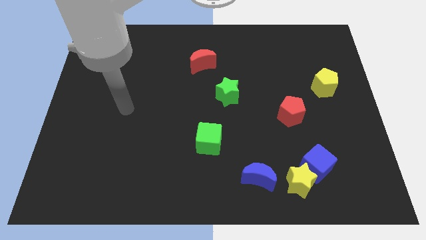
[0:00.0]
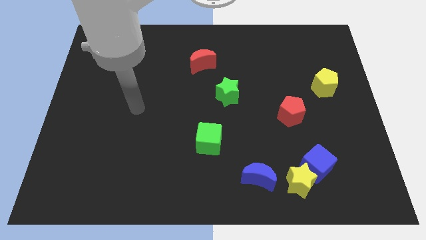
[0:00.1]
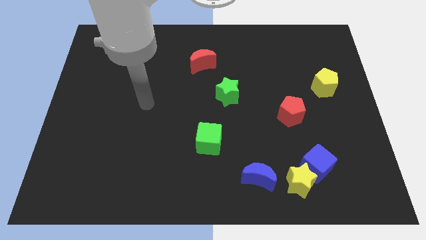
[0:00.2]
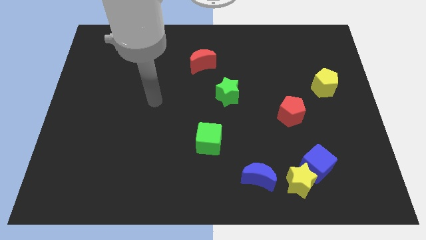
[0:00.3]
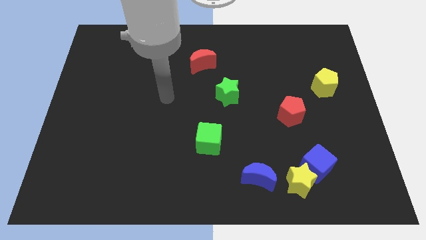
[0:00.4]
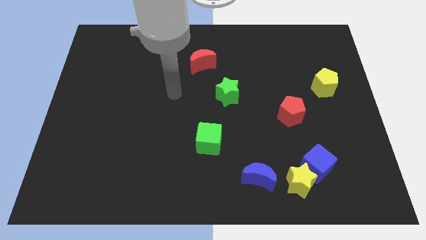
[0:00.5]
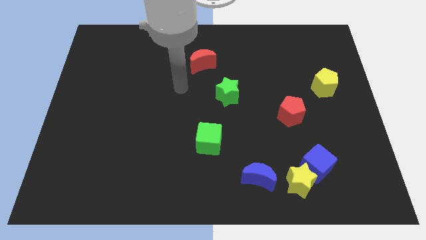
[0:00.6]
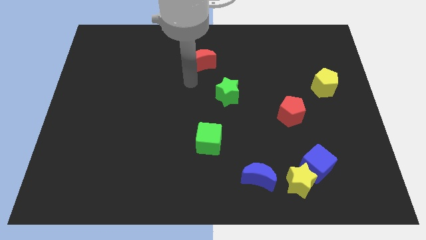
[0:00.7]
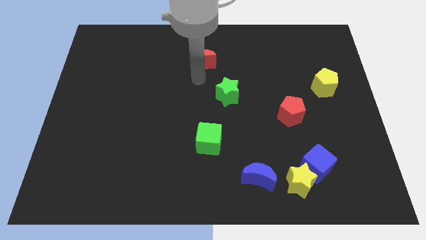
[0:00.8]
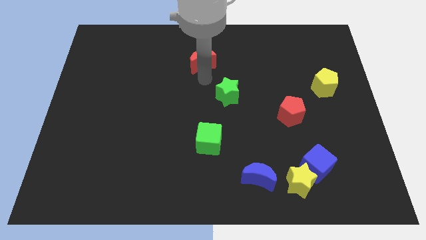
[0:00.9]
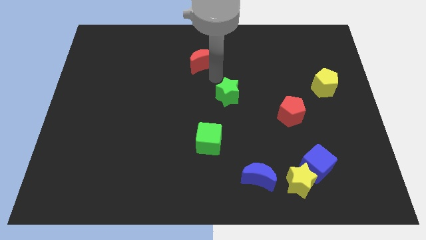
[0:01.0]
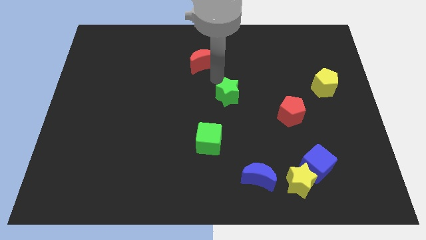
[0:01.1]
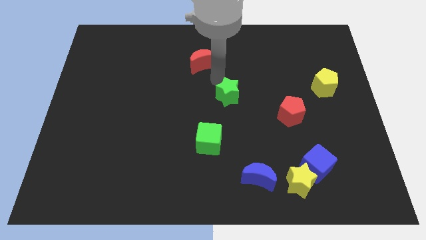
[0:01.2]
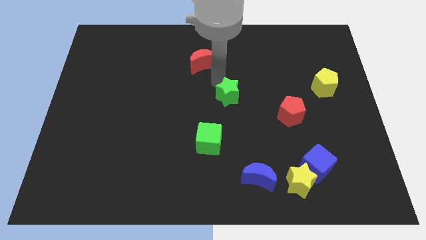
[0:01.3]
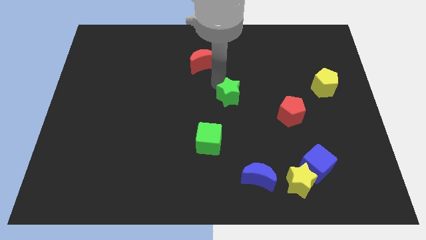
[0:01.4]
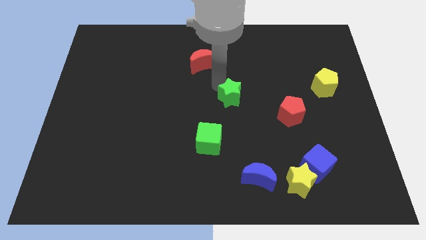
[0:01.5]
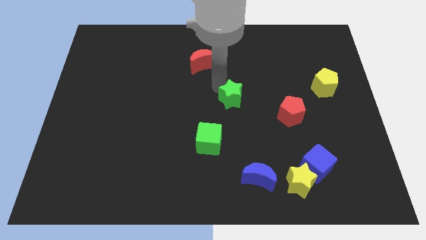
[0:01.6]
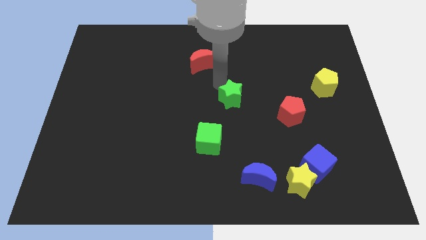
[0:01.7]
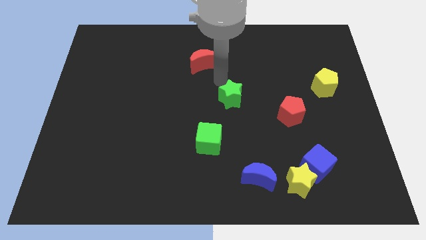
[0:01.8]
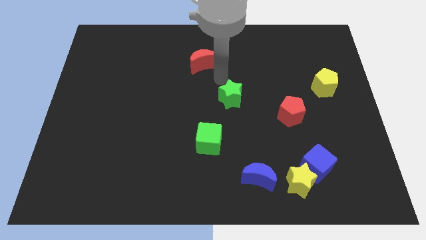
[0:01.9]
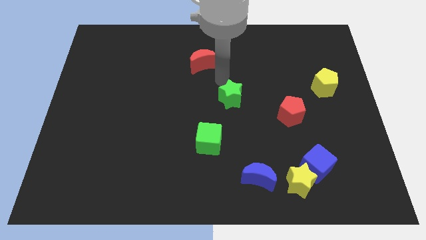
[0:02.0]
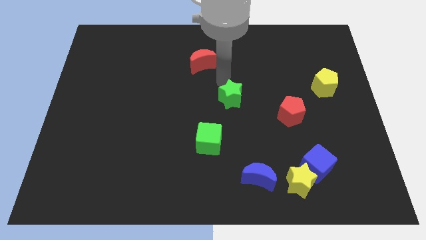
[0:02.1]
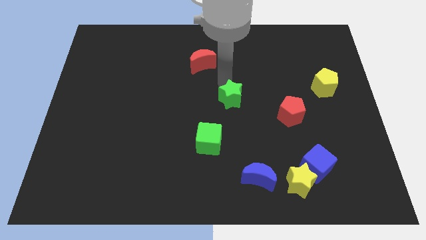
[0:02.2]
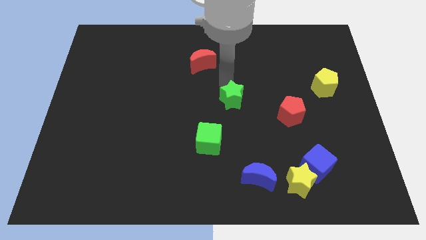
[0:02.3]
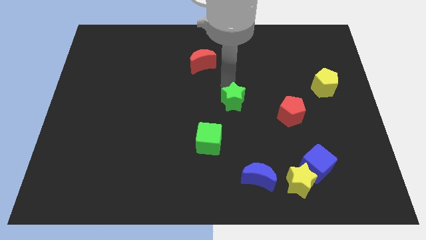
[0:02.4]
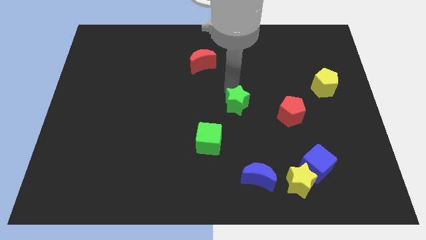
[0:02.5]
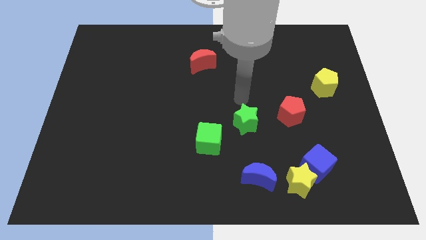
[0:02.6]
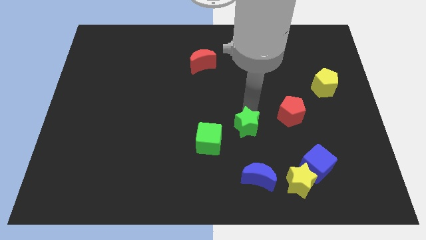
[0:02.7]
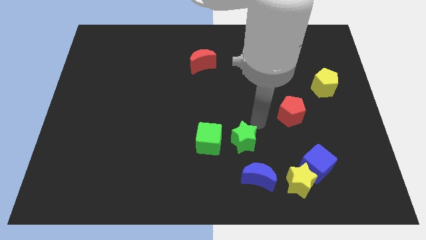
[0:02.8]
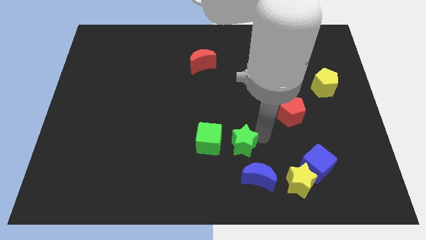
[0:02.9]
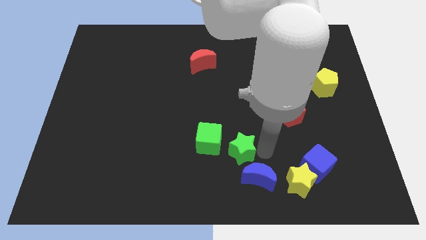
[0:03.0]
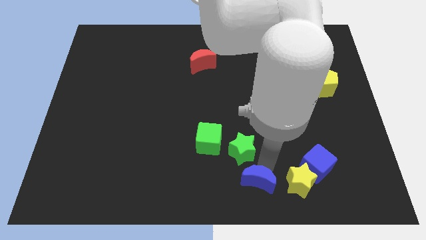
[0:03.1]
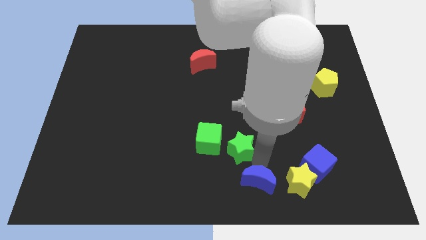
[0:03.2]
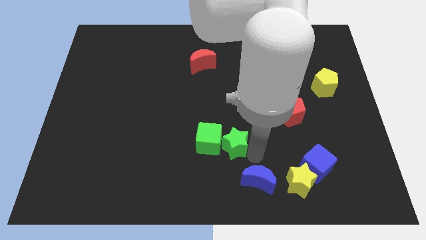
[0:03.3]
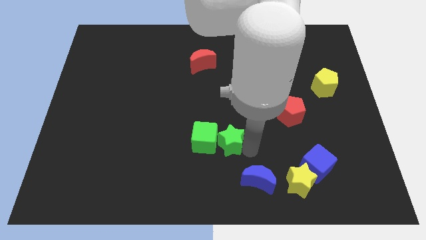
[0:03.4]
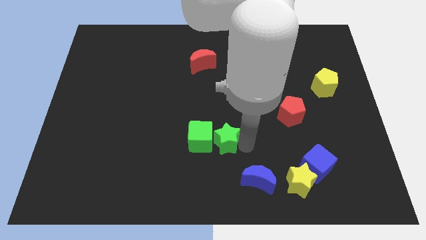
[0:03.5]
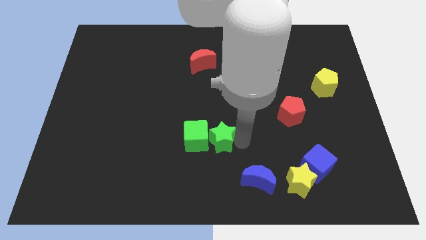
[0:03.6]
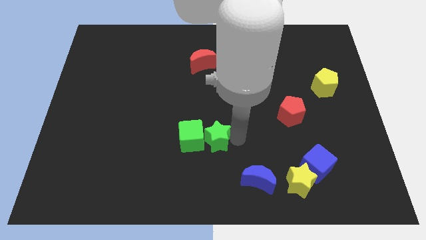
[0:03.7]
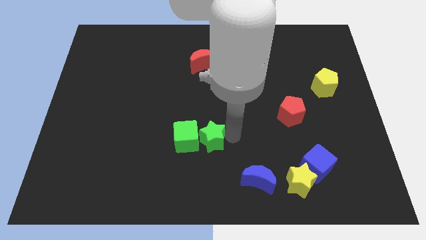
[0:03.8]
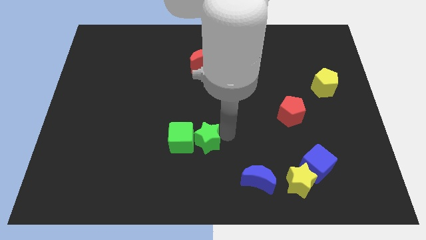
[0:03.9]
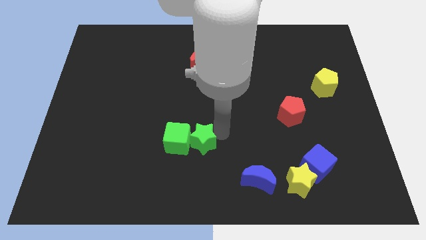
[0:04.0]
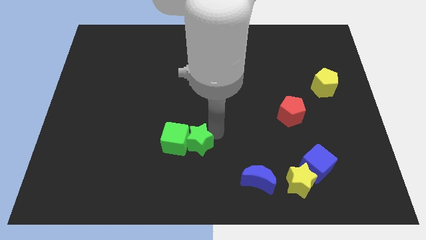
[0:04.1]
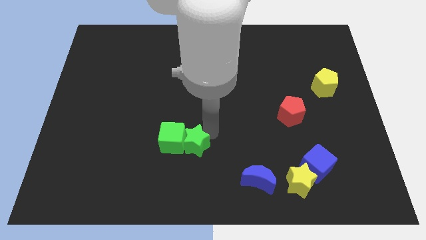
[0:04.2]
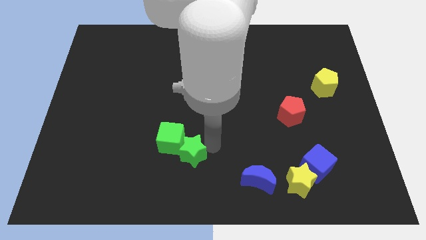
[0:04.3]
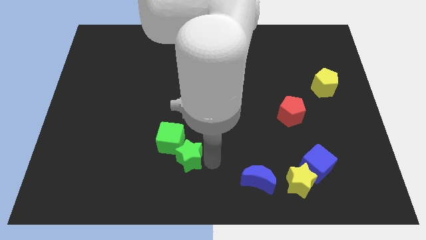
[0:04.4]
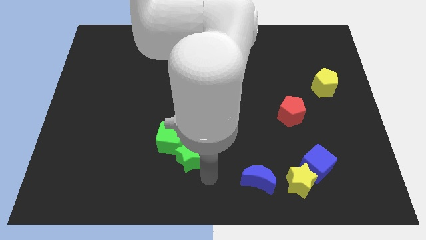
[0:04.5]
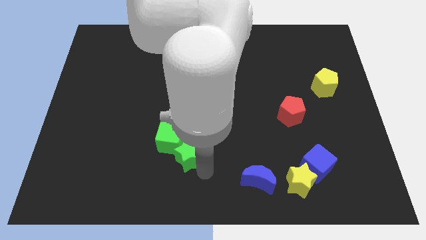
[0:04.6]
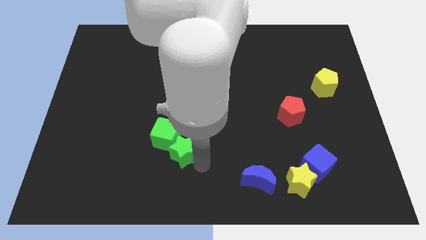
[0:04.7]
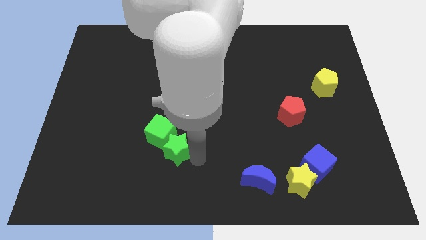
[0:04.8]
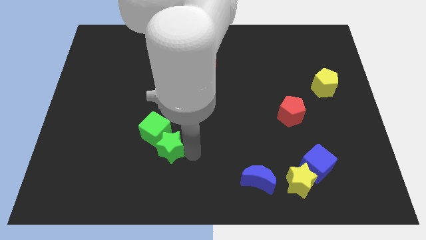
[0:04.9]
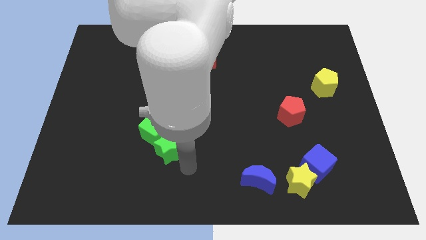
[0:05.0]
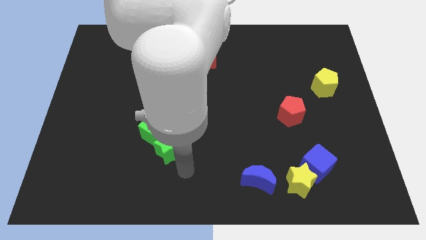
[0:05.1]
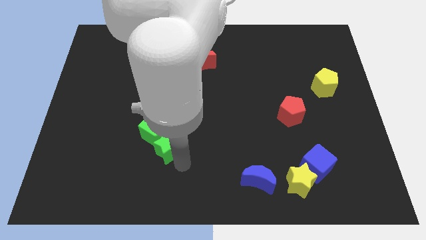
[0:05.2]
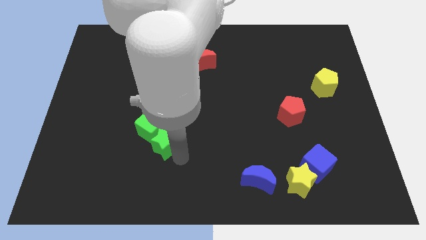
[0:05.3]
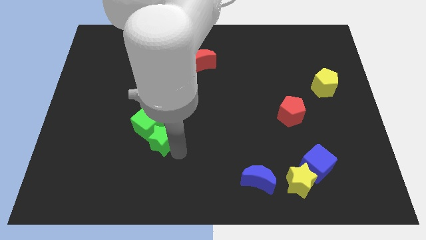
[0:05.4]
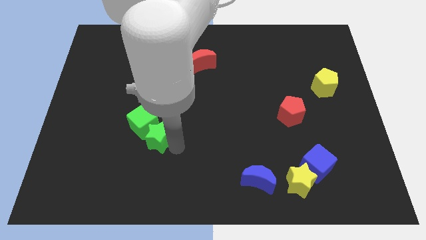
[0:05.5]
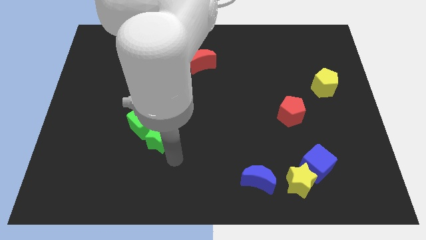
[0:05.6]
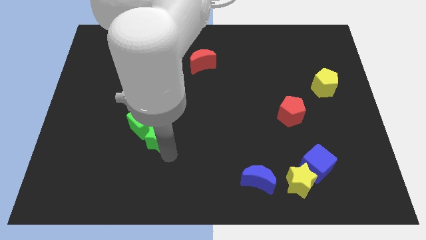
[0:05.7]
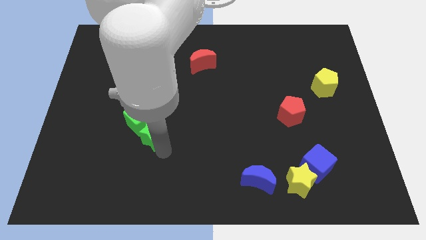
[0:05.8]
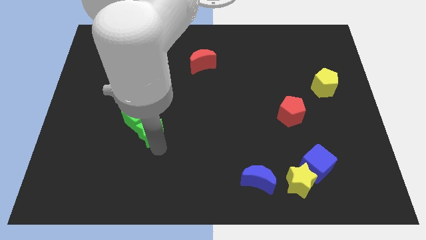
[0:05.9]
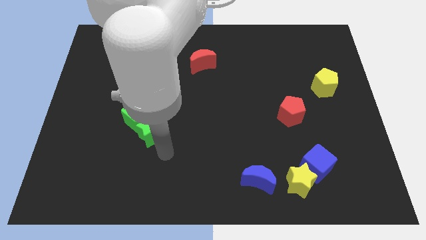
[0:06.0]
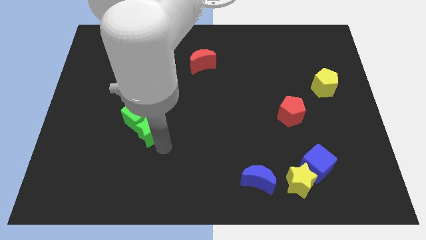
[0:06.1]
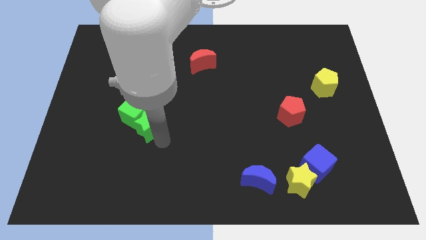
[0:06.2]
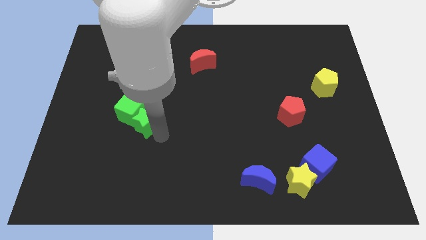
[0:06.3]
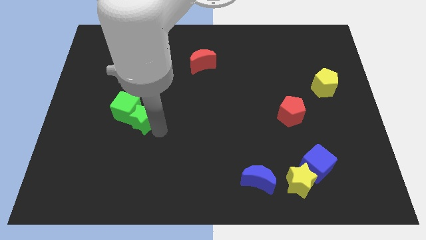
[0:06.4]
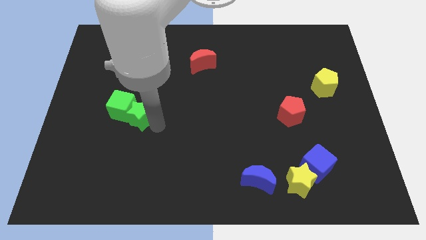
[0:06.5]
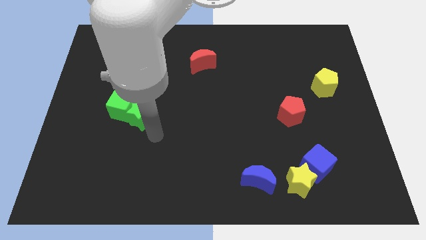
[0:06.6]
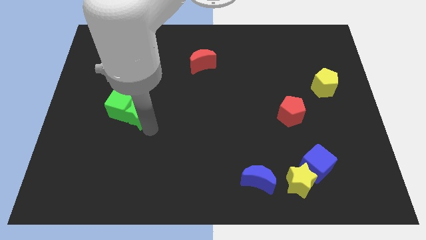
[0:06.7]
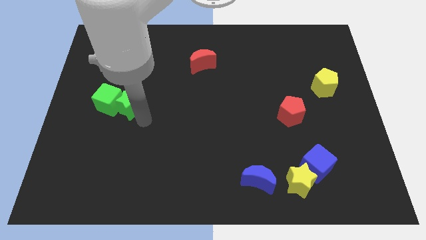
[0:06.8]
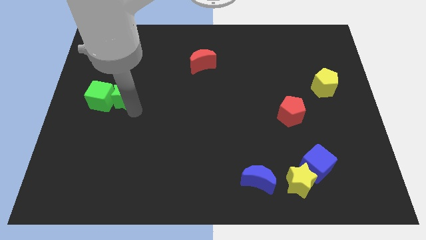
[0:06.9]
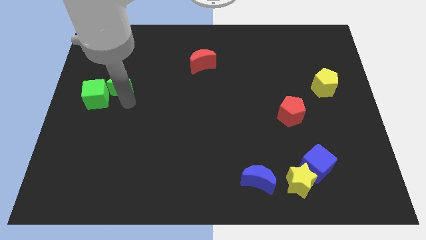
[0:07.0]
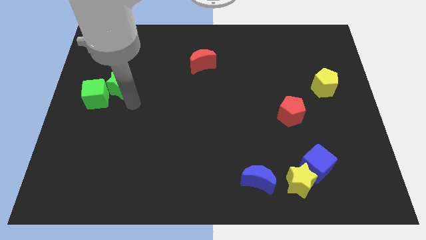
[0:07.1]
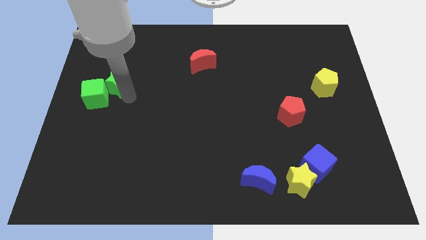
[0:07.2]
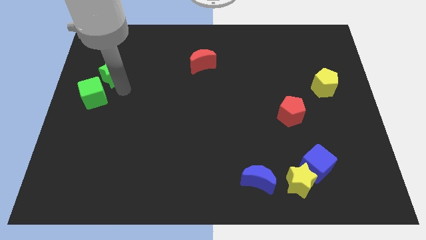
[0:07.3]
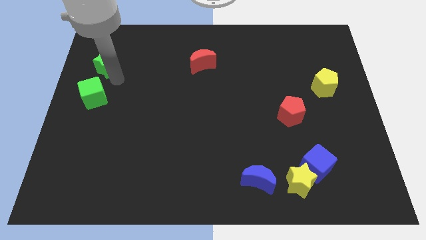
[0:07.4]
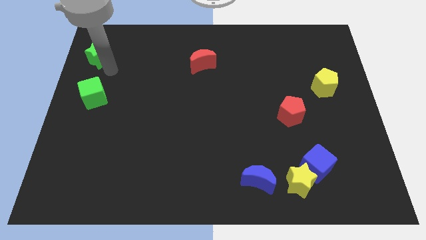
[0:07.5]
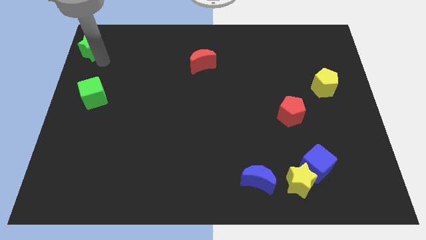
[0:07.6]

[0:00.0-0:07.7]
slide the green star to the top left of the board
